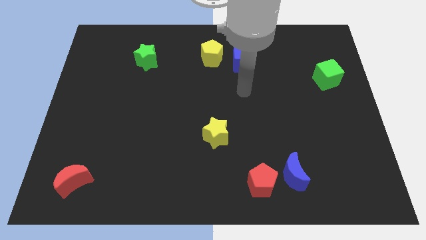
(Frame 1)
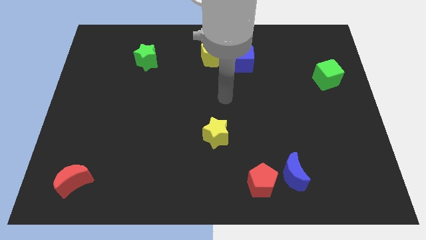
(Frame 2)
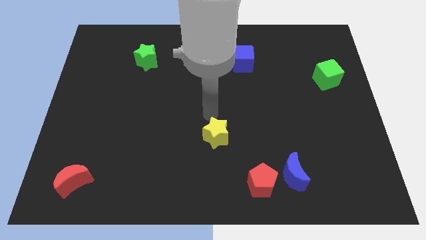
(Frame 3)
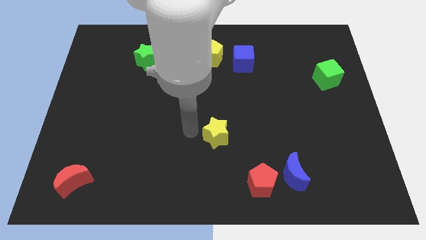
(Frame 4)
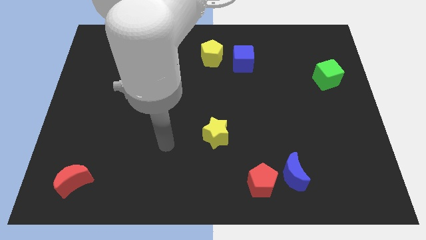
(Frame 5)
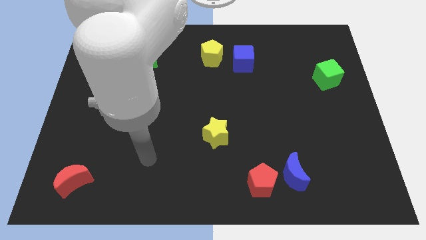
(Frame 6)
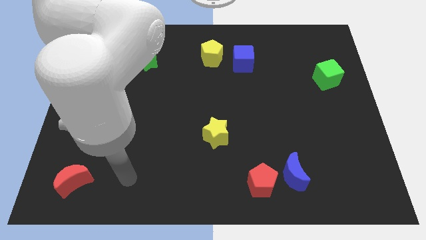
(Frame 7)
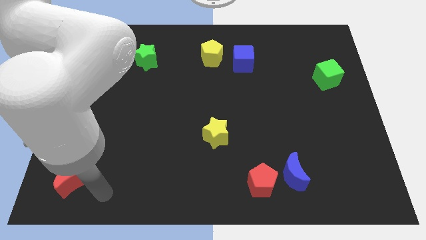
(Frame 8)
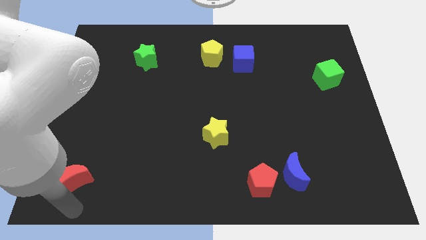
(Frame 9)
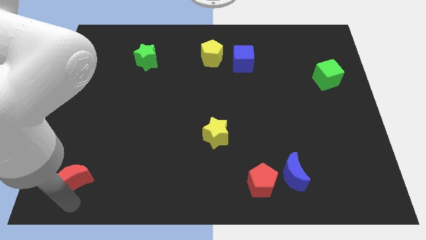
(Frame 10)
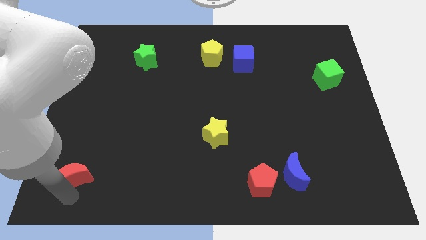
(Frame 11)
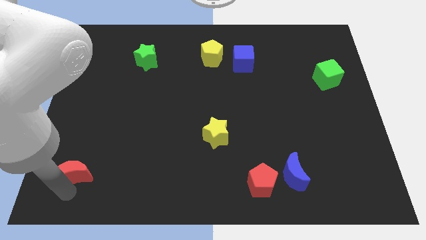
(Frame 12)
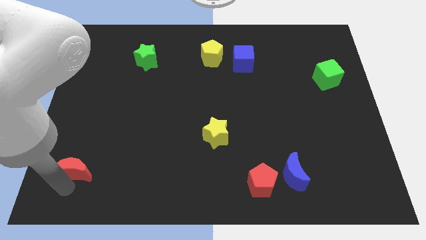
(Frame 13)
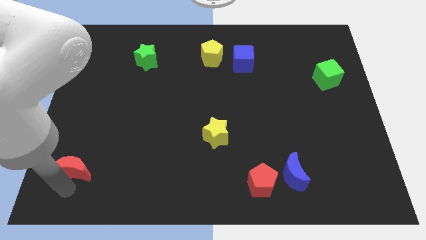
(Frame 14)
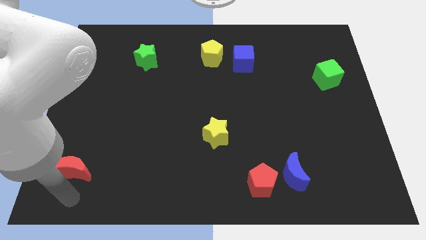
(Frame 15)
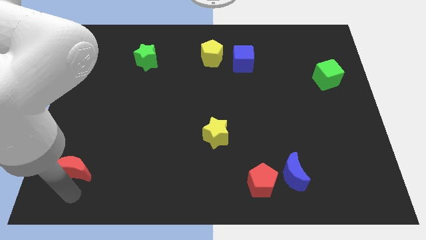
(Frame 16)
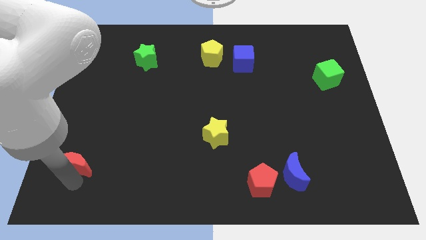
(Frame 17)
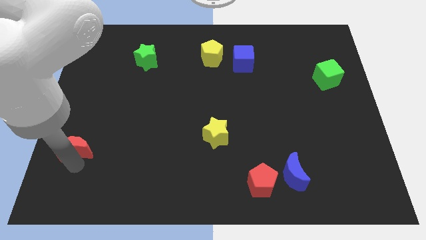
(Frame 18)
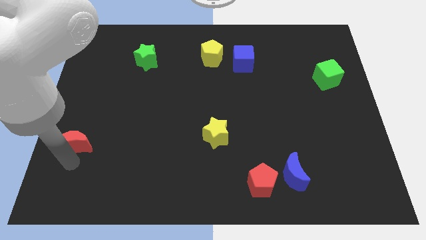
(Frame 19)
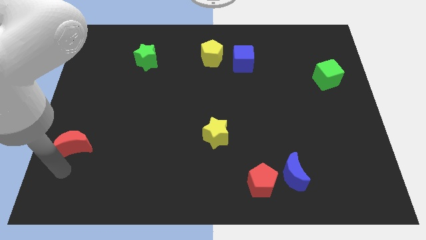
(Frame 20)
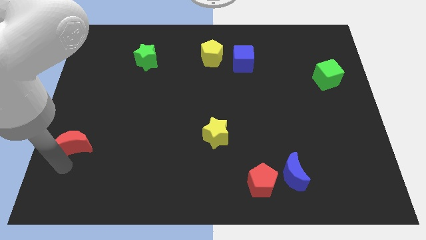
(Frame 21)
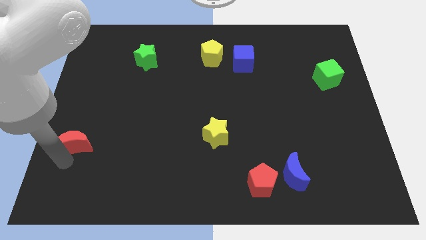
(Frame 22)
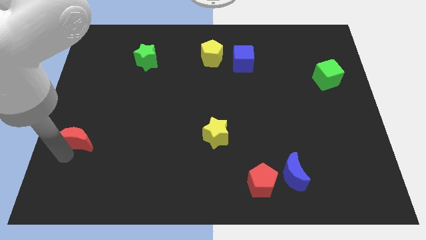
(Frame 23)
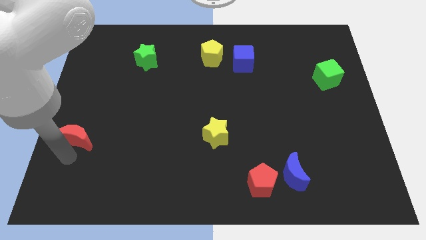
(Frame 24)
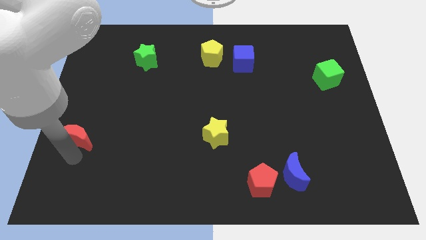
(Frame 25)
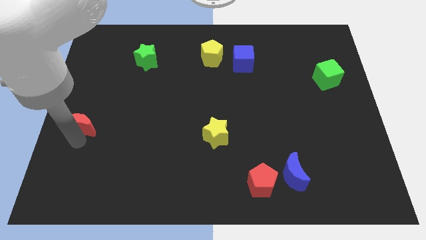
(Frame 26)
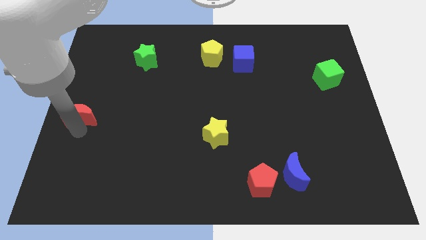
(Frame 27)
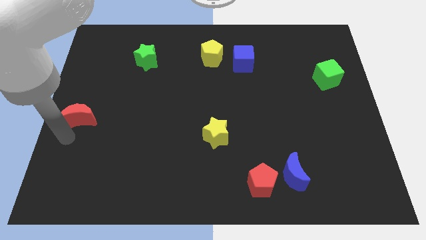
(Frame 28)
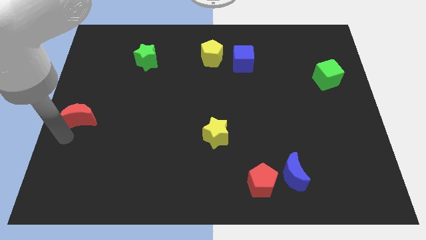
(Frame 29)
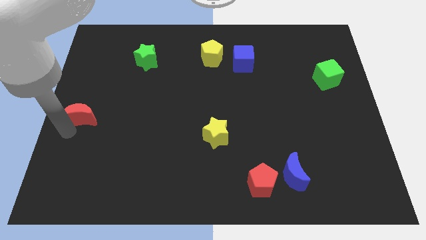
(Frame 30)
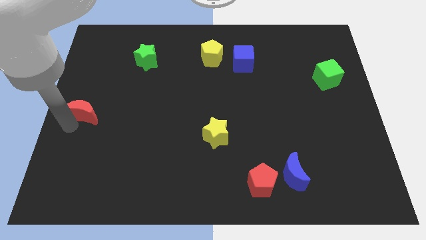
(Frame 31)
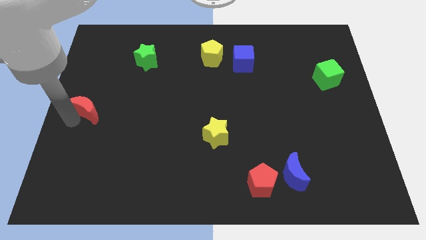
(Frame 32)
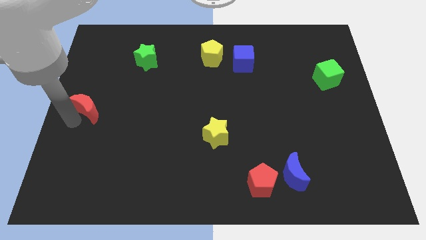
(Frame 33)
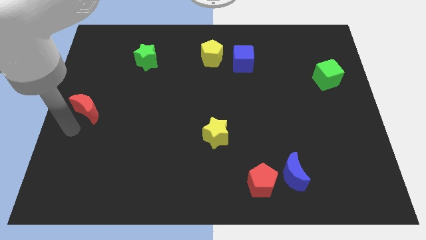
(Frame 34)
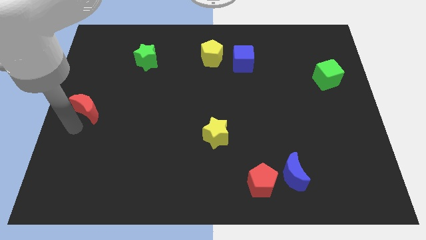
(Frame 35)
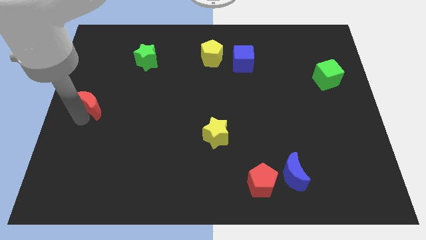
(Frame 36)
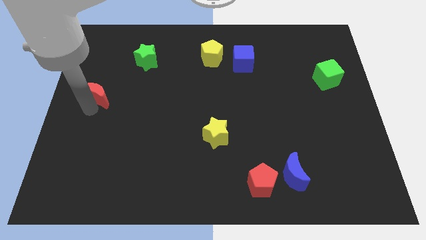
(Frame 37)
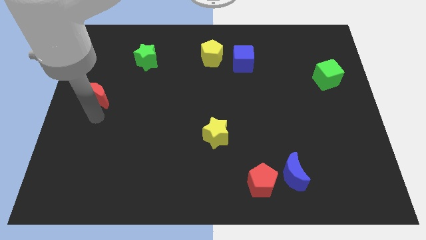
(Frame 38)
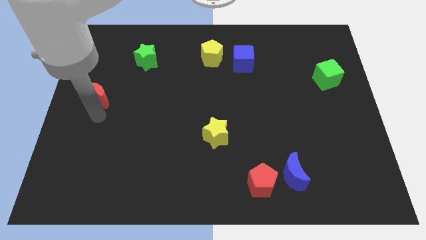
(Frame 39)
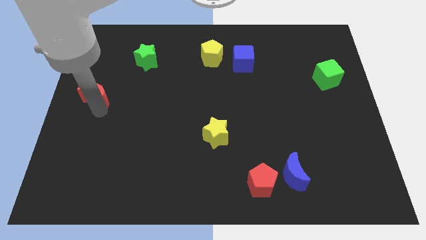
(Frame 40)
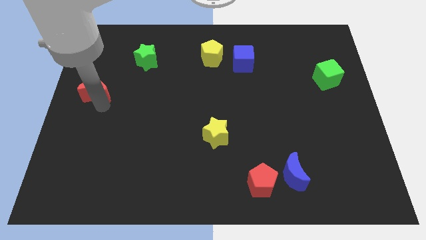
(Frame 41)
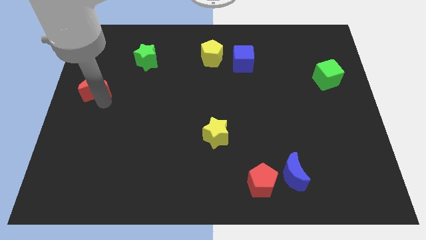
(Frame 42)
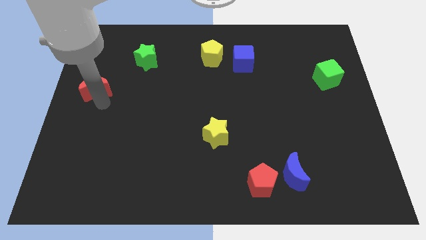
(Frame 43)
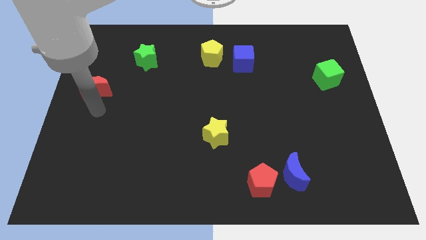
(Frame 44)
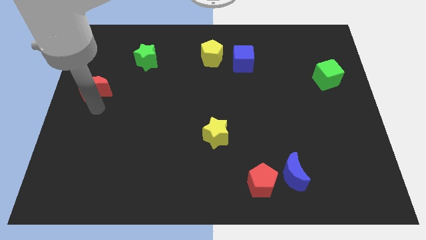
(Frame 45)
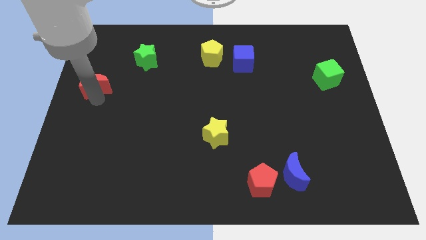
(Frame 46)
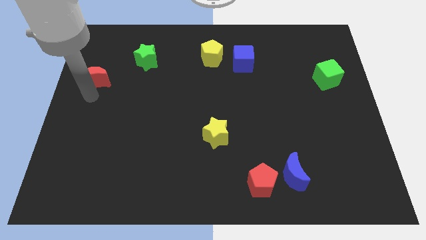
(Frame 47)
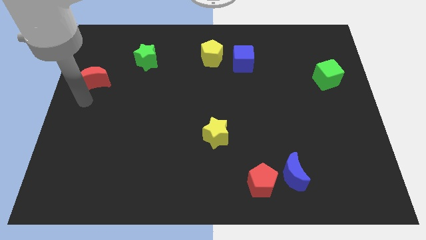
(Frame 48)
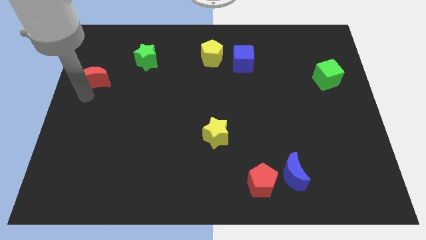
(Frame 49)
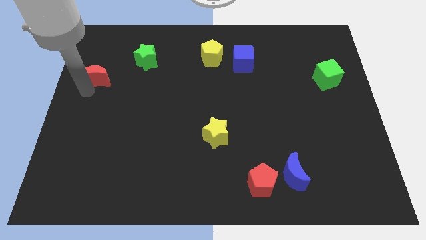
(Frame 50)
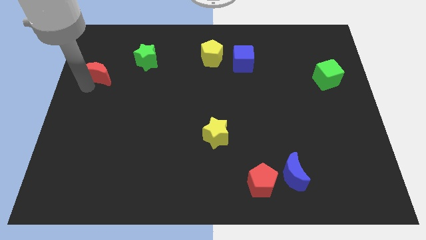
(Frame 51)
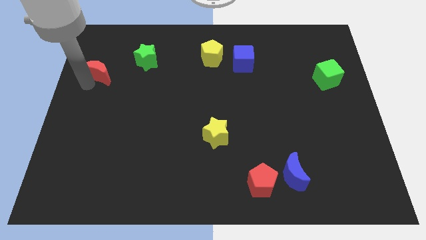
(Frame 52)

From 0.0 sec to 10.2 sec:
slide the red moon just left of the green star

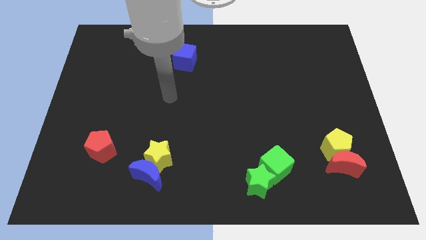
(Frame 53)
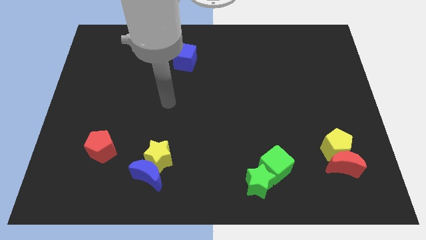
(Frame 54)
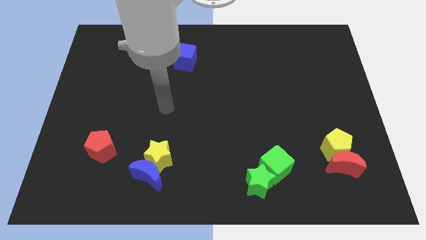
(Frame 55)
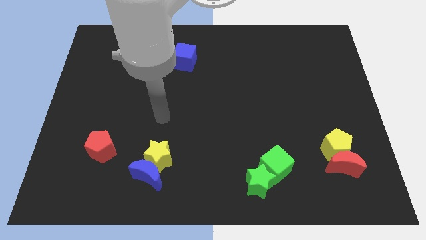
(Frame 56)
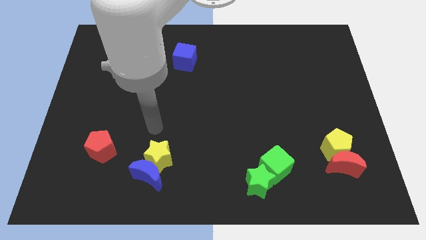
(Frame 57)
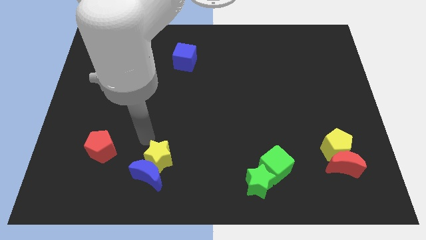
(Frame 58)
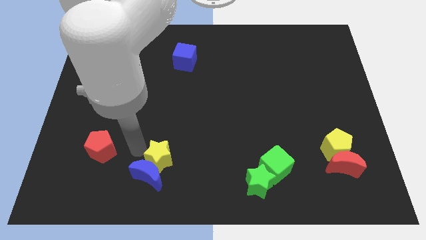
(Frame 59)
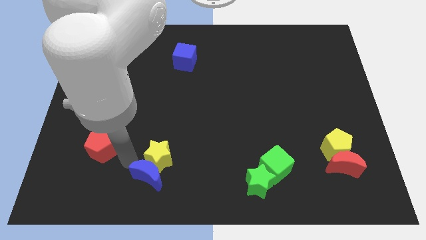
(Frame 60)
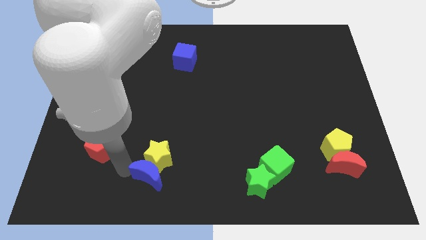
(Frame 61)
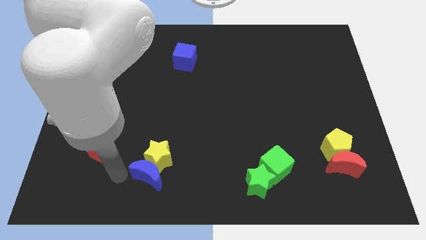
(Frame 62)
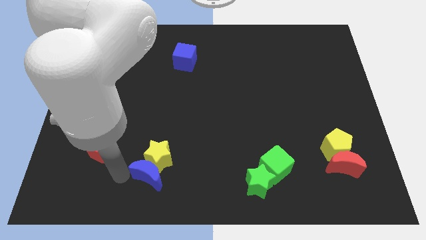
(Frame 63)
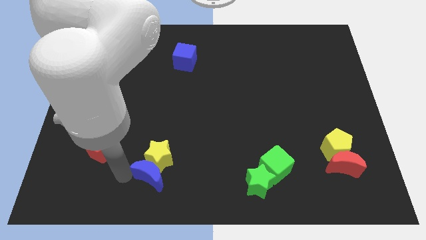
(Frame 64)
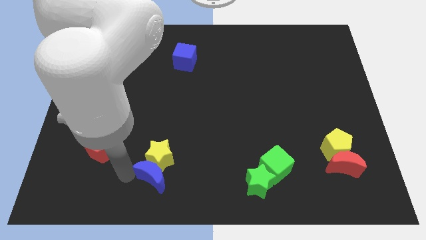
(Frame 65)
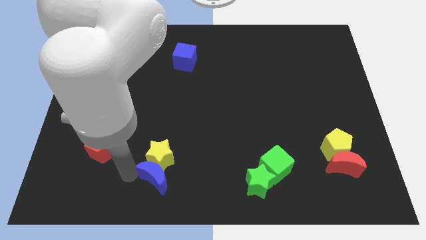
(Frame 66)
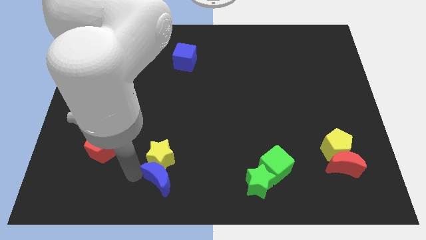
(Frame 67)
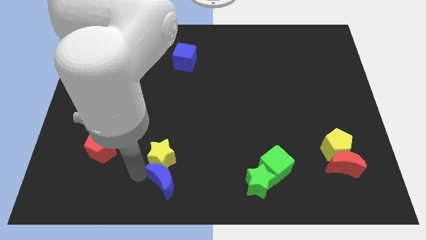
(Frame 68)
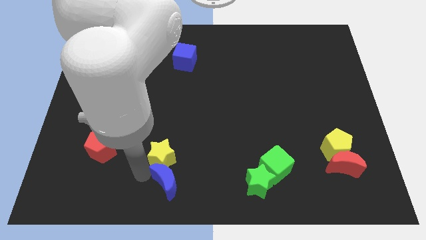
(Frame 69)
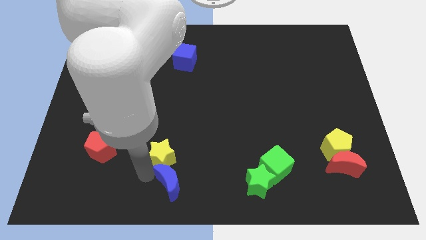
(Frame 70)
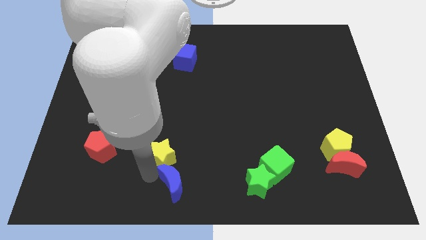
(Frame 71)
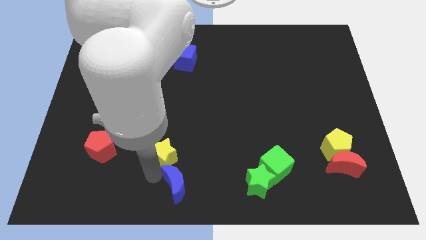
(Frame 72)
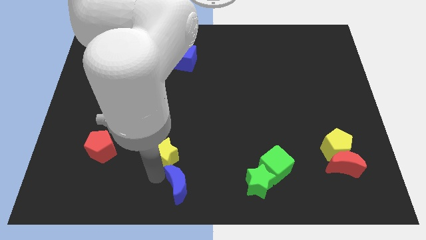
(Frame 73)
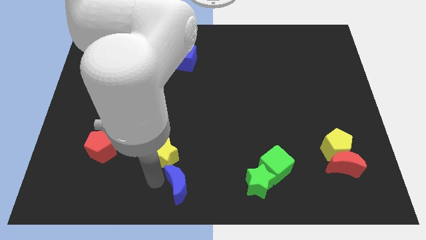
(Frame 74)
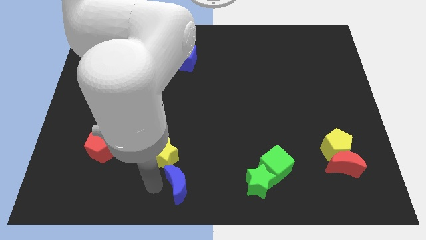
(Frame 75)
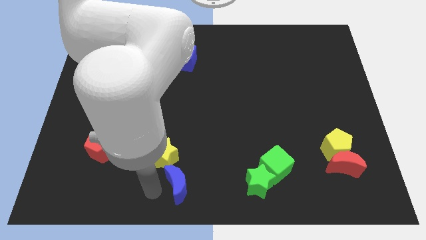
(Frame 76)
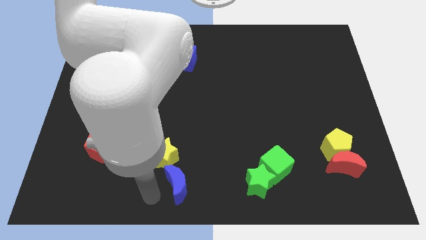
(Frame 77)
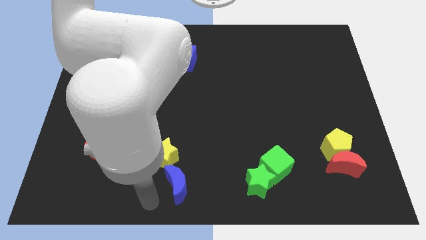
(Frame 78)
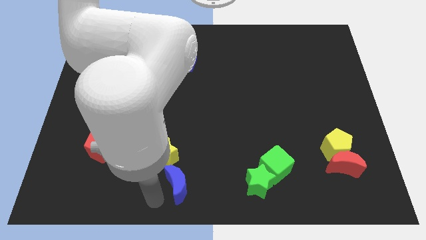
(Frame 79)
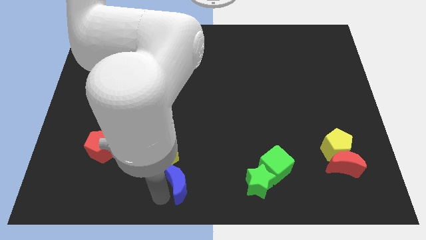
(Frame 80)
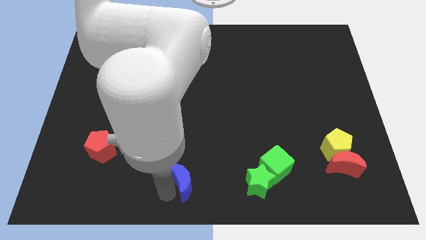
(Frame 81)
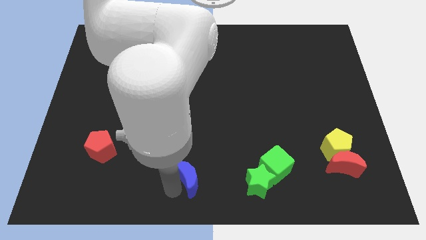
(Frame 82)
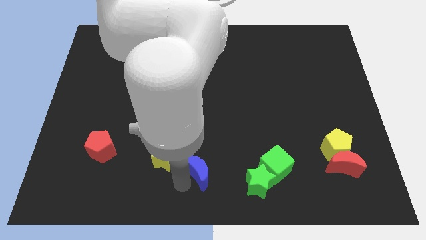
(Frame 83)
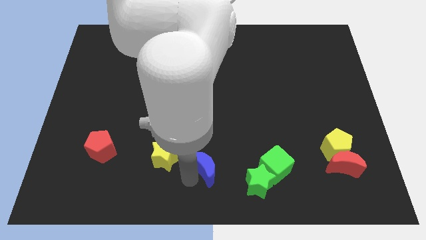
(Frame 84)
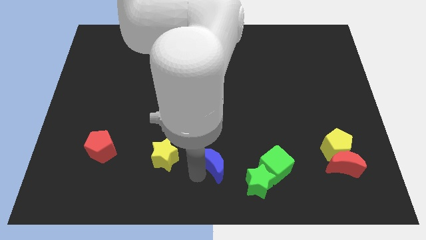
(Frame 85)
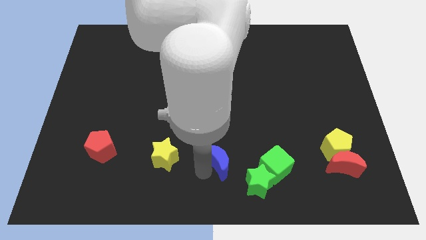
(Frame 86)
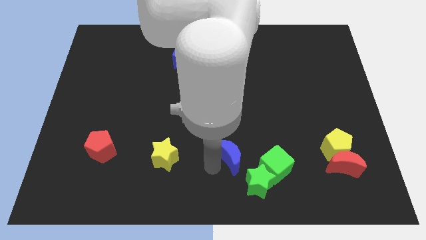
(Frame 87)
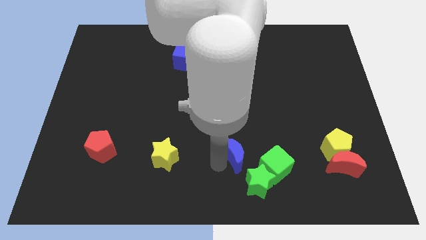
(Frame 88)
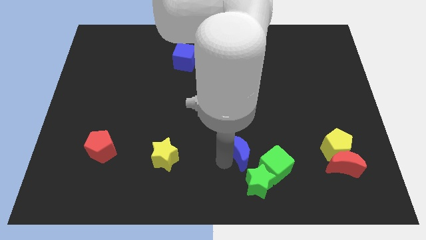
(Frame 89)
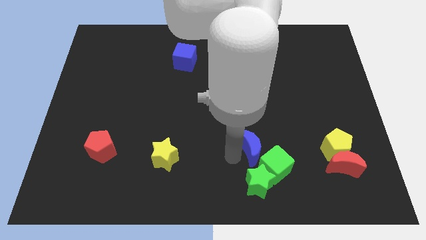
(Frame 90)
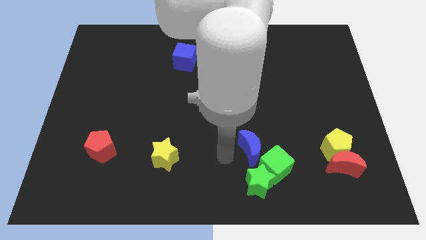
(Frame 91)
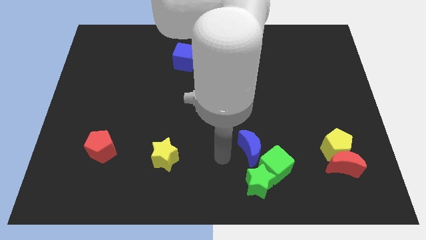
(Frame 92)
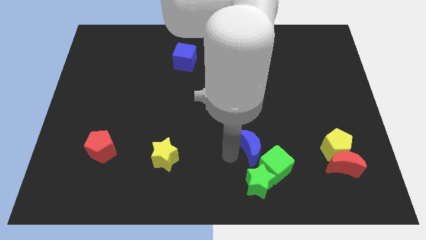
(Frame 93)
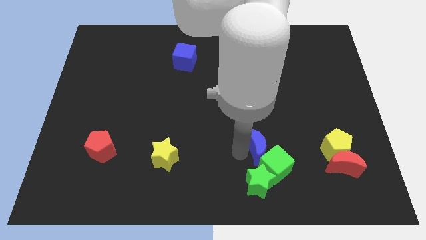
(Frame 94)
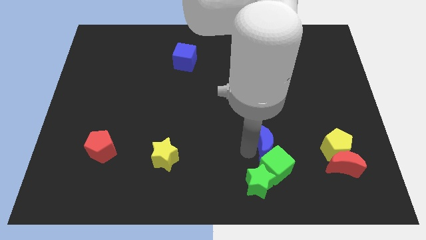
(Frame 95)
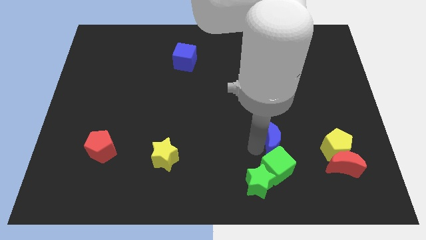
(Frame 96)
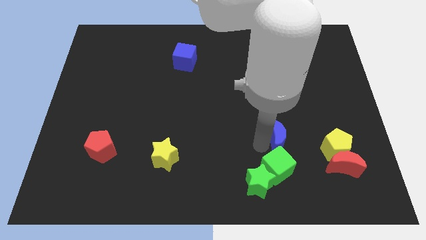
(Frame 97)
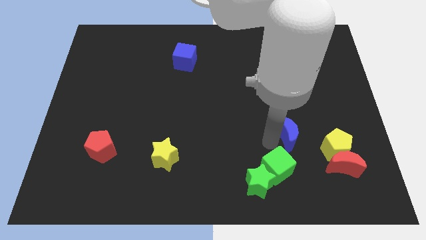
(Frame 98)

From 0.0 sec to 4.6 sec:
move the blue moon to the top left side of the yellow pentagon
